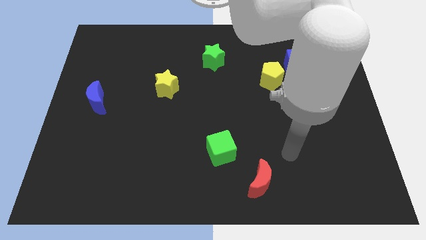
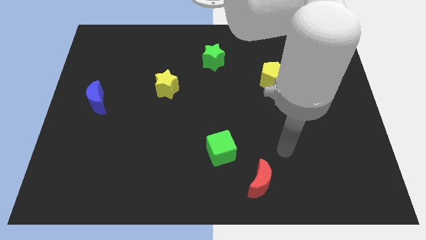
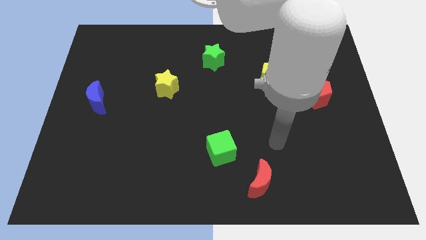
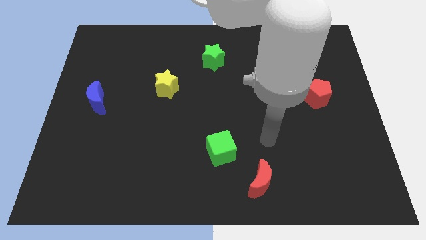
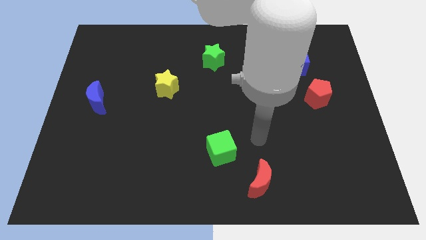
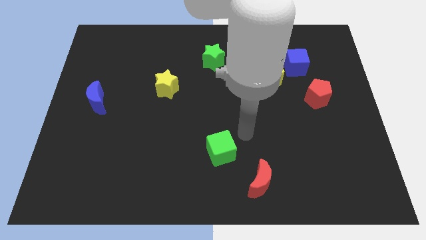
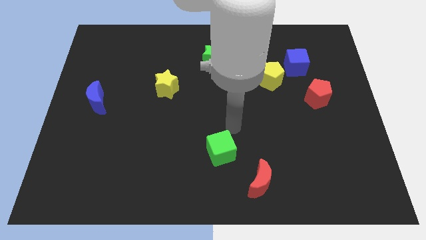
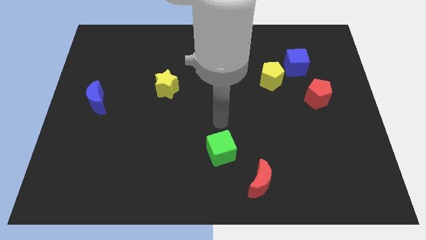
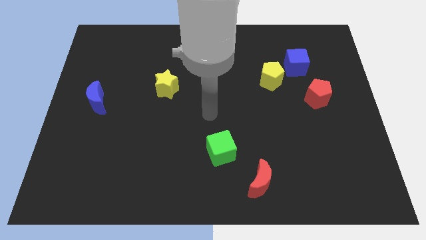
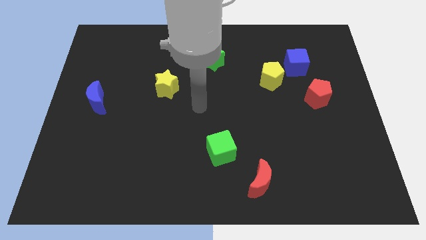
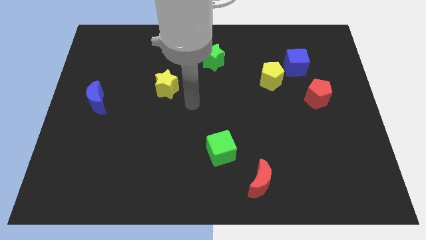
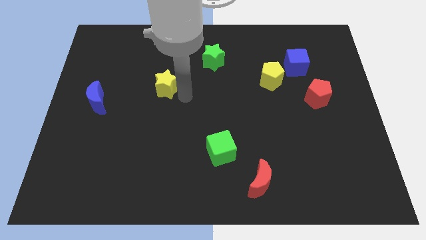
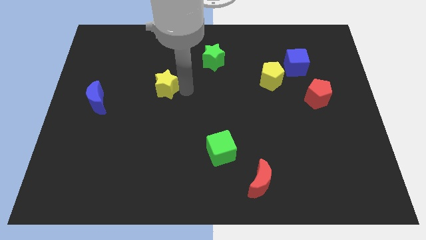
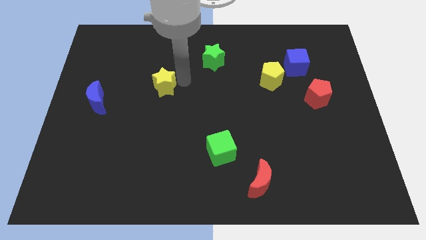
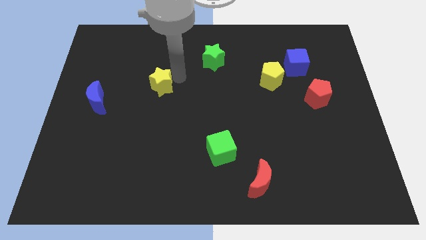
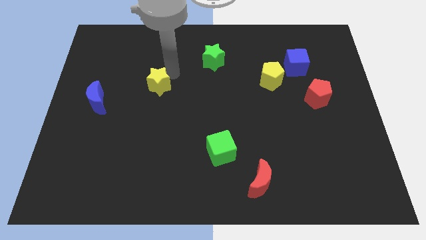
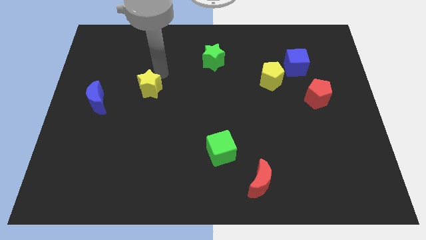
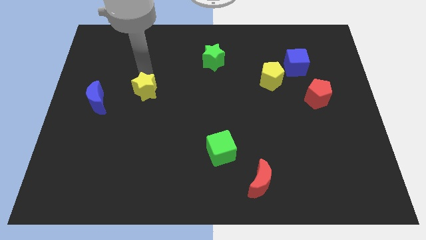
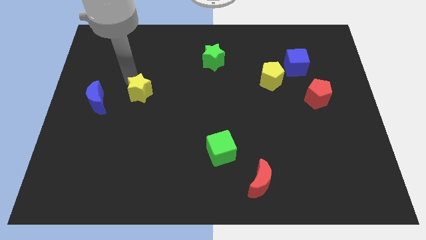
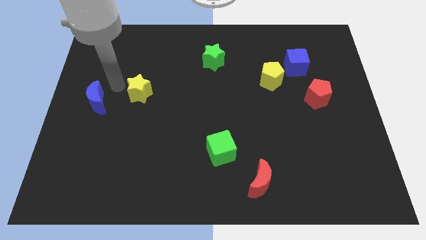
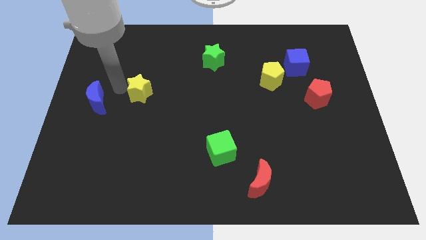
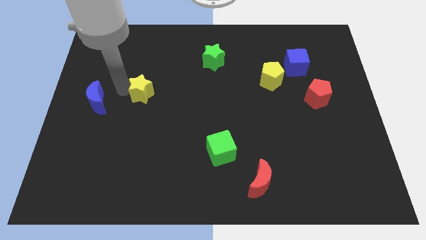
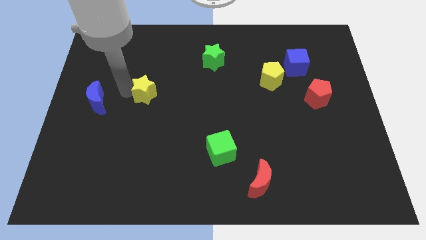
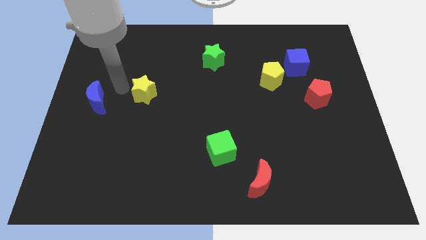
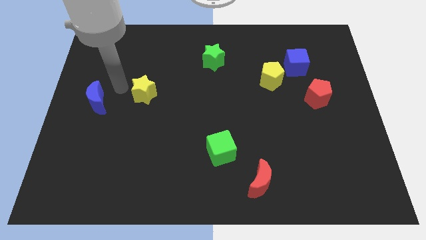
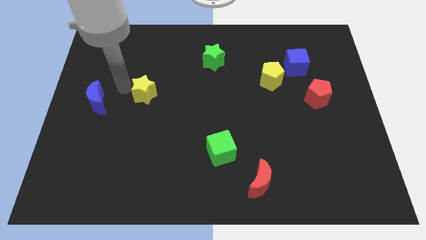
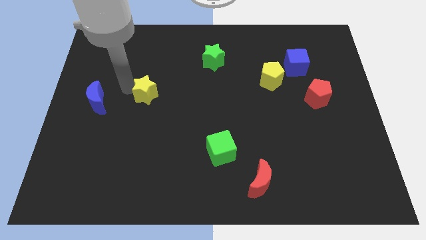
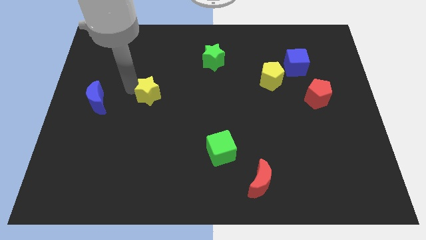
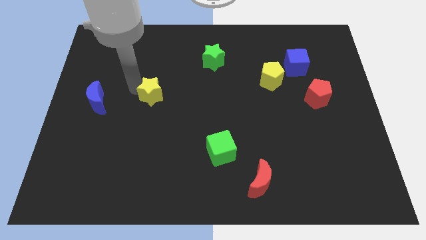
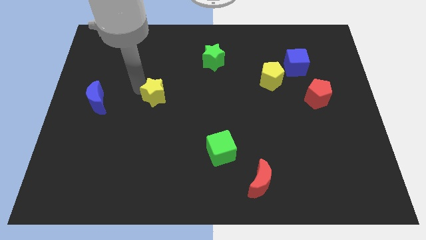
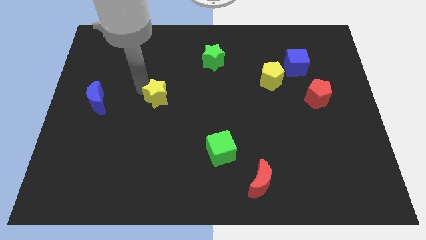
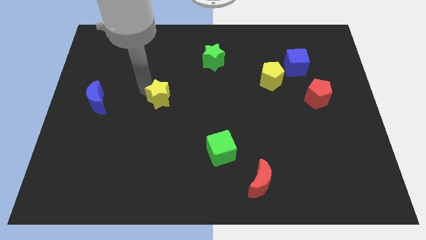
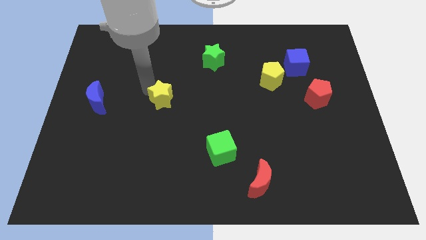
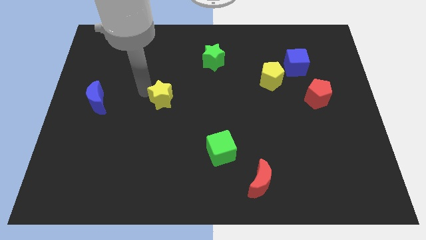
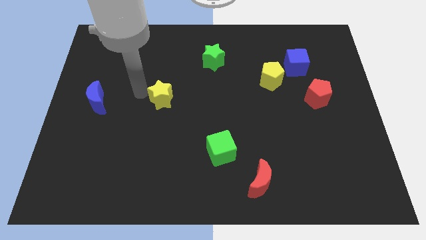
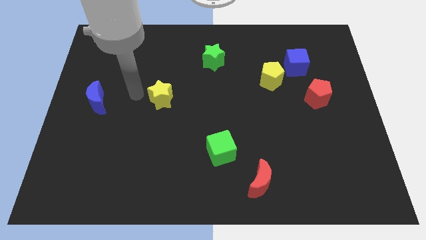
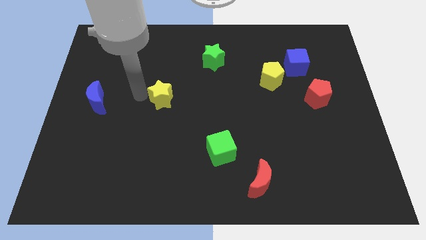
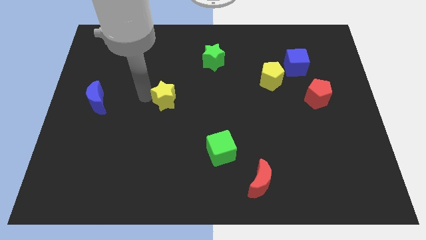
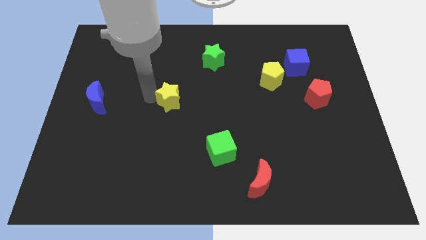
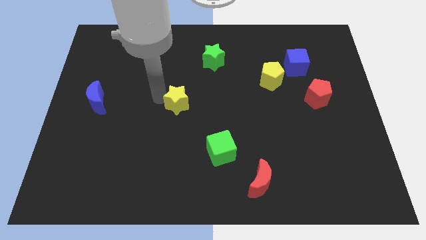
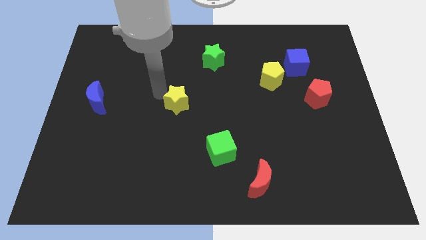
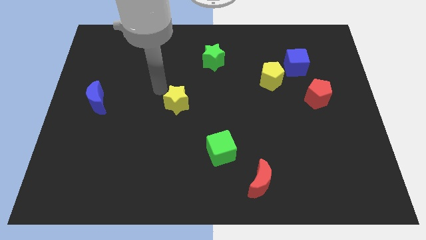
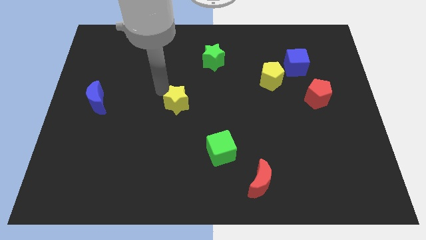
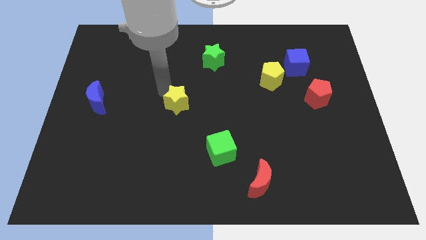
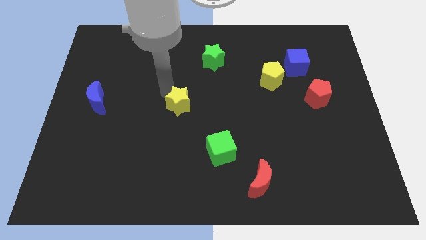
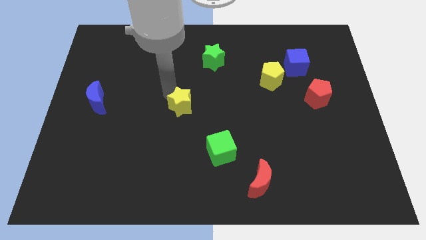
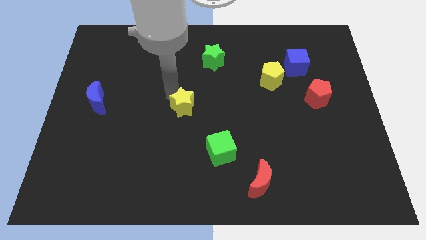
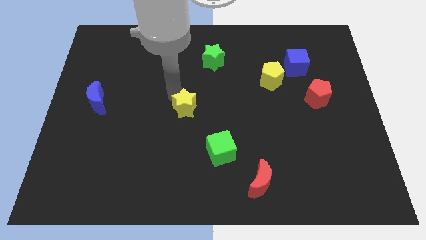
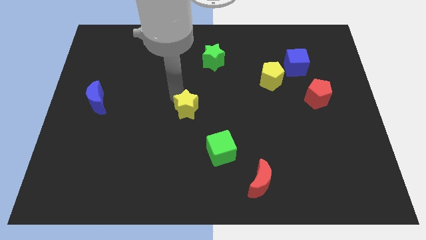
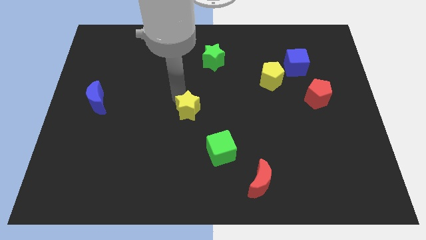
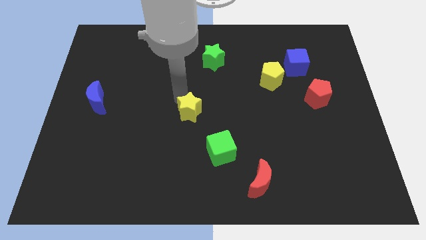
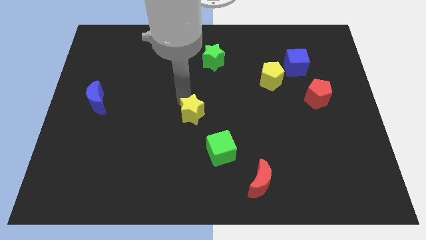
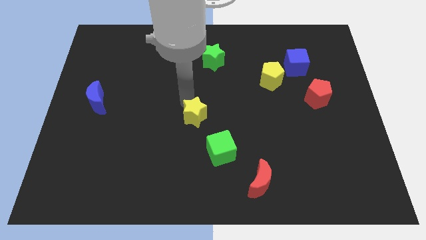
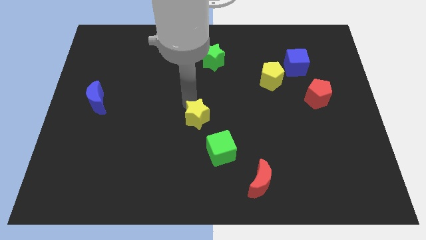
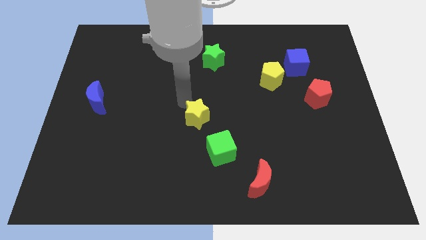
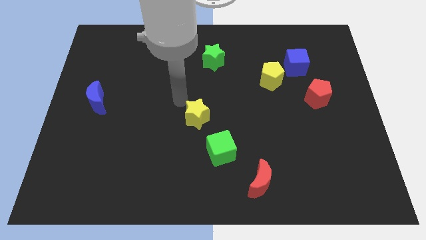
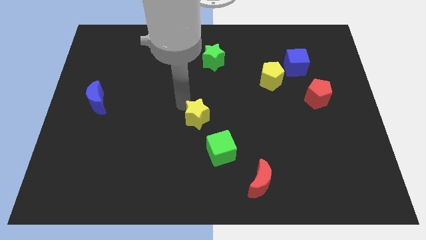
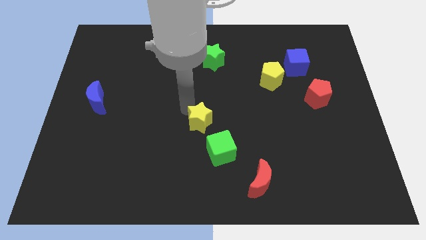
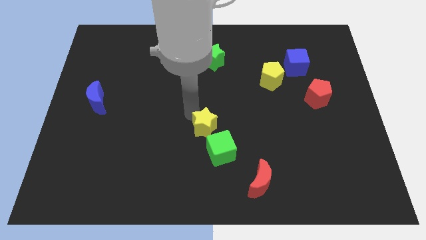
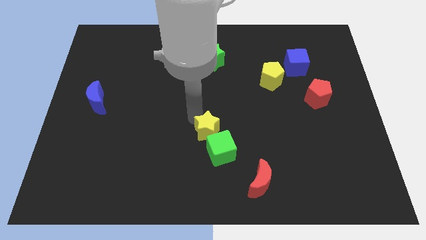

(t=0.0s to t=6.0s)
slide the yellow star towards the green cube

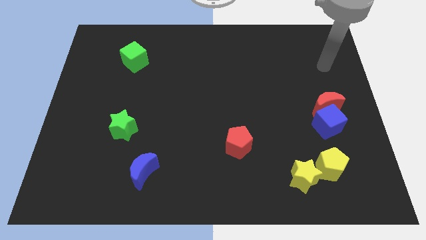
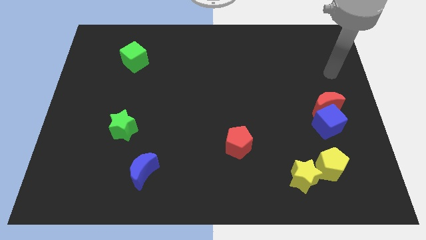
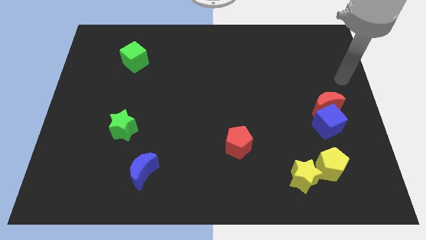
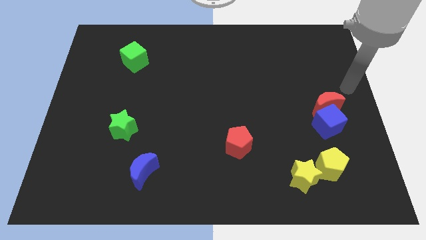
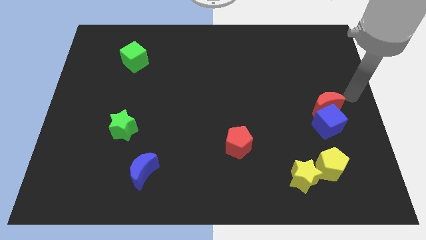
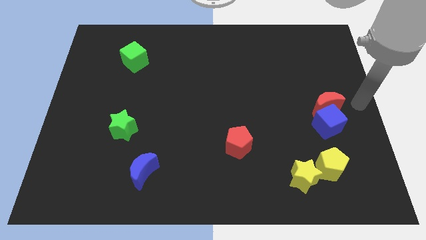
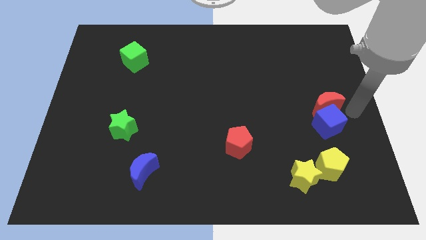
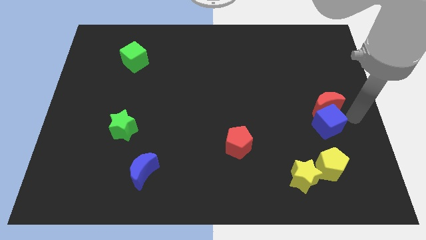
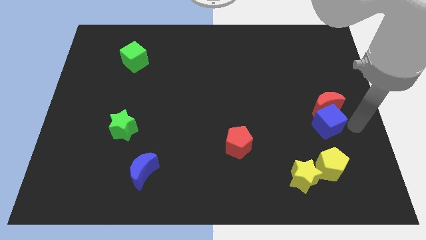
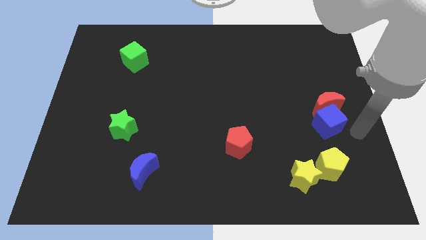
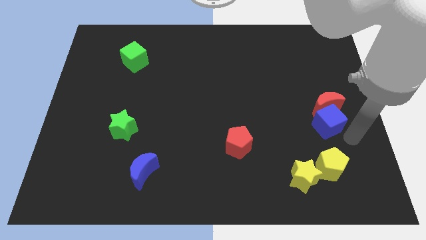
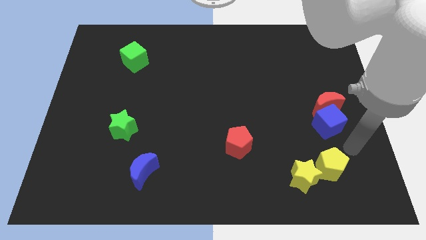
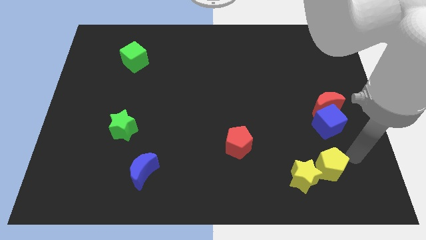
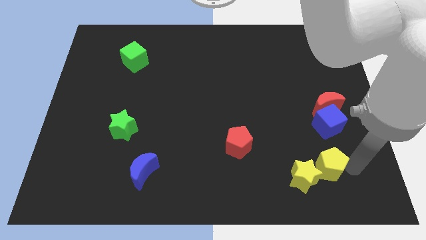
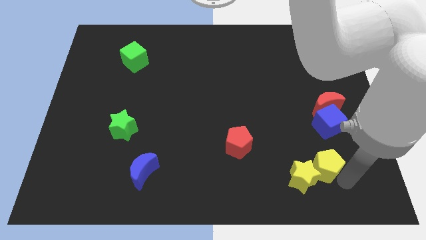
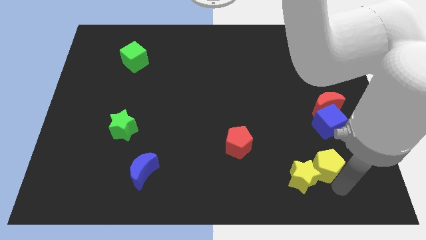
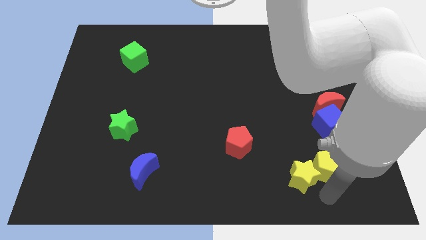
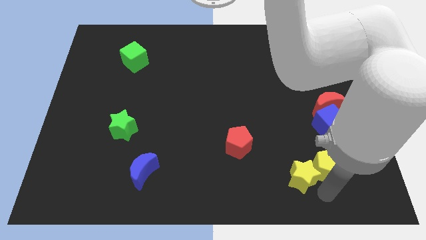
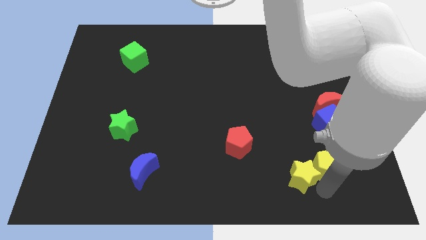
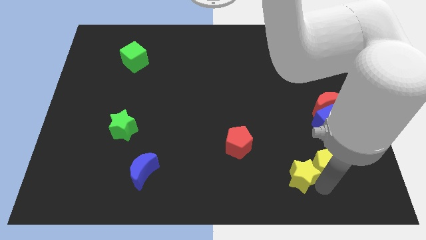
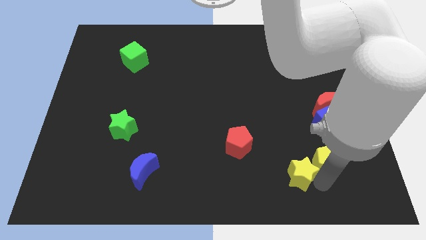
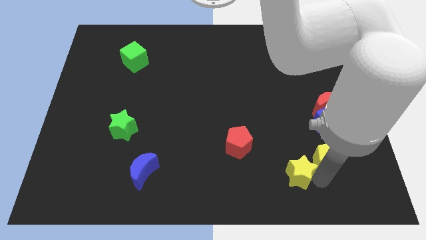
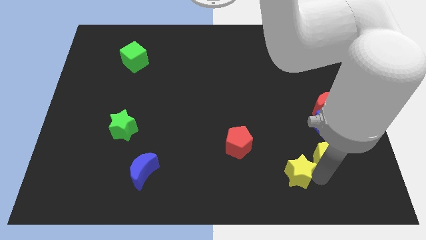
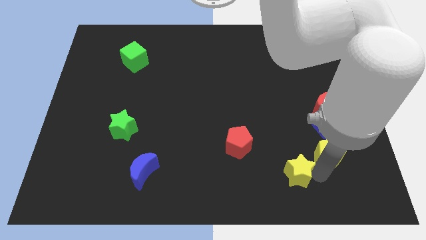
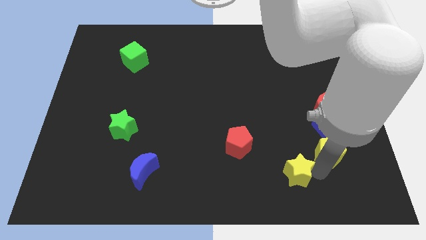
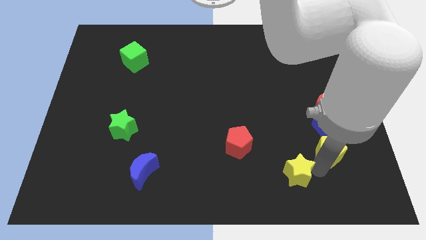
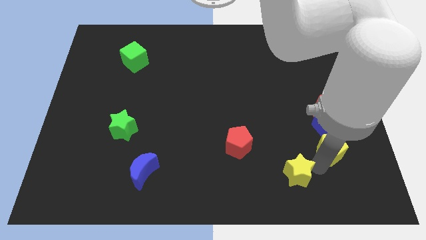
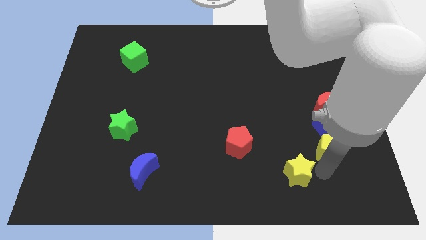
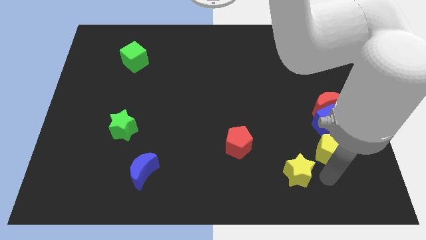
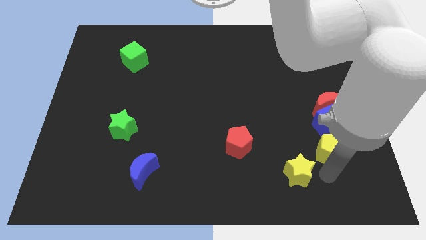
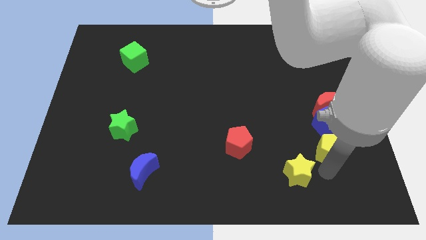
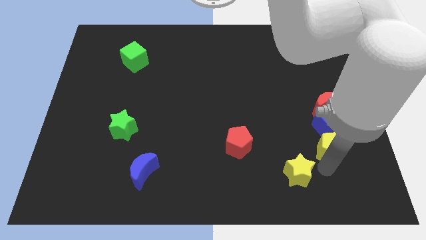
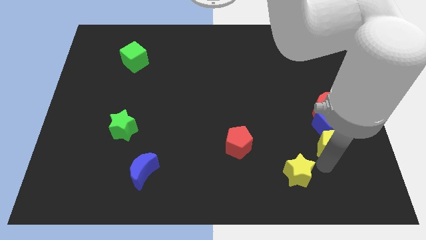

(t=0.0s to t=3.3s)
push the yellow pentagon next to the blue cube
